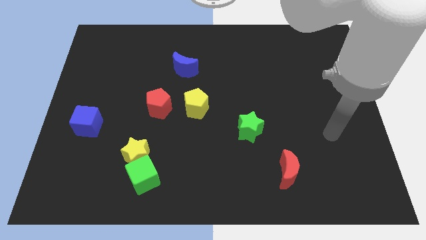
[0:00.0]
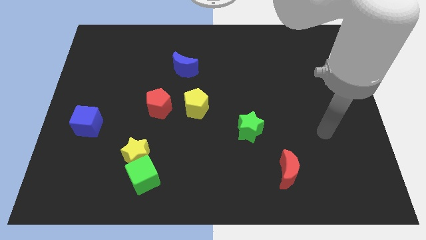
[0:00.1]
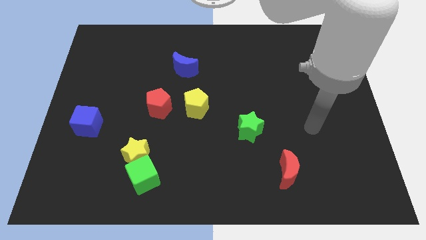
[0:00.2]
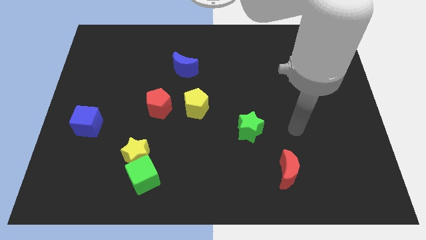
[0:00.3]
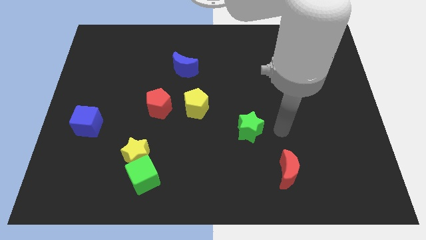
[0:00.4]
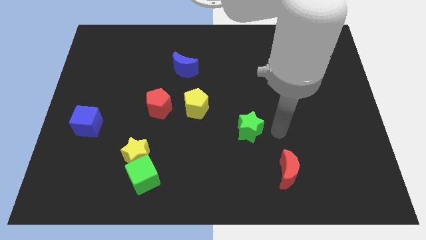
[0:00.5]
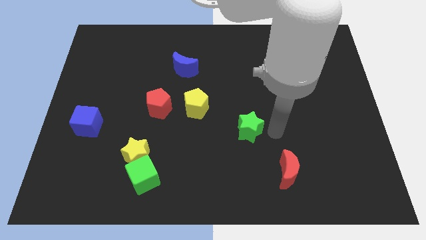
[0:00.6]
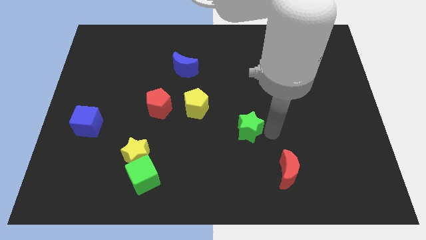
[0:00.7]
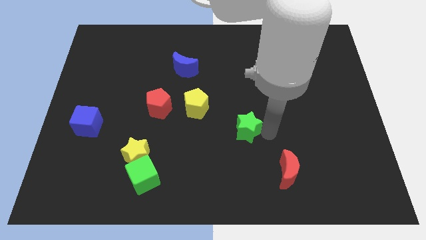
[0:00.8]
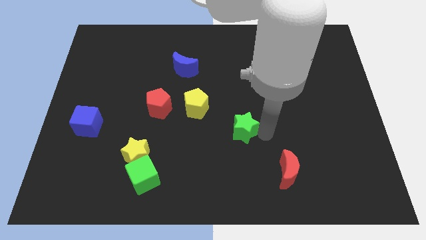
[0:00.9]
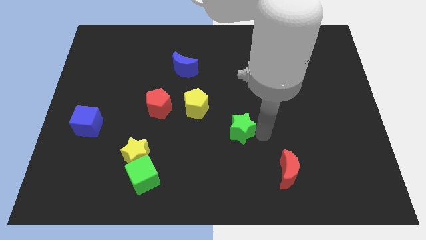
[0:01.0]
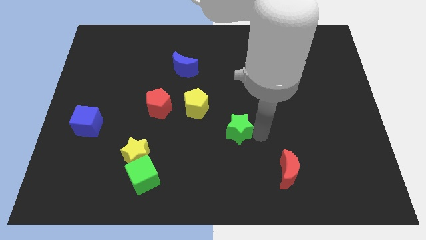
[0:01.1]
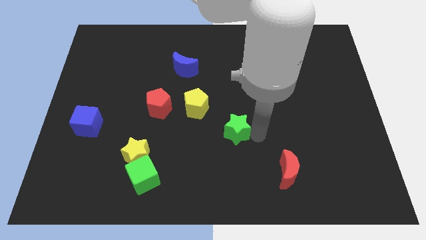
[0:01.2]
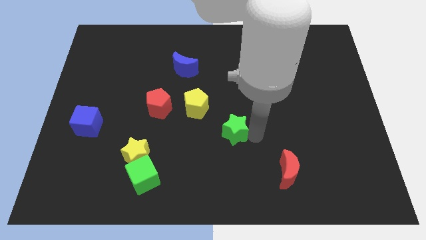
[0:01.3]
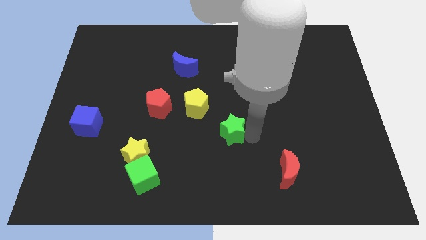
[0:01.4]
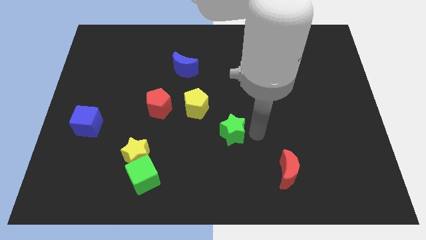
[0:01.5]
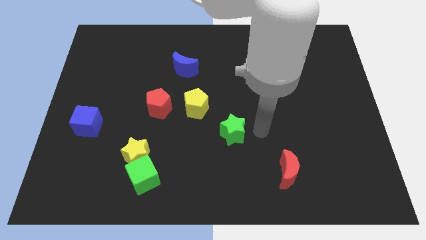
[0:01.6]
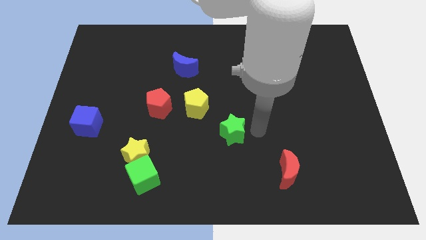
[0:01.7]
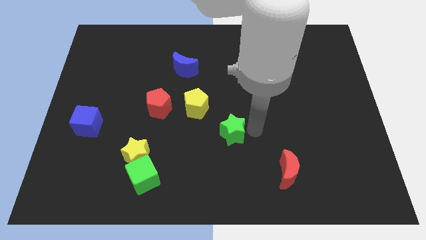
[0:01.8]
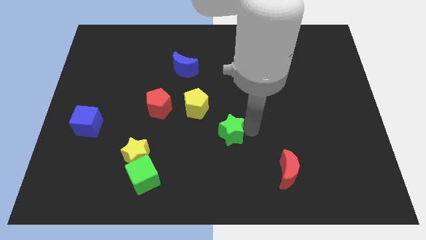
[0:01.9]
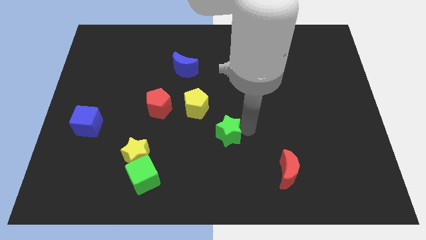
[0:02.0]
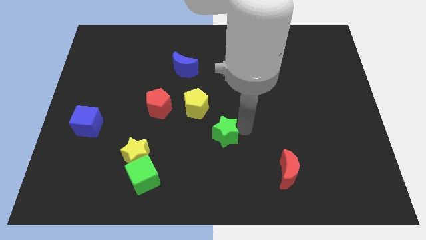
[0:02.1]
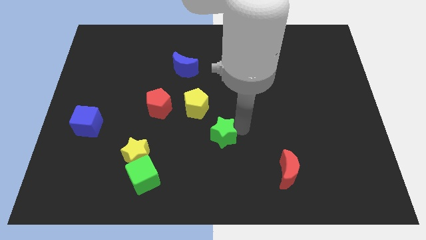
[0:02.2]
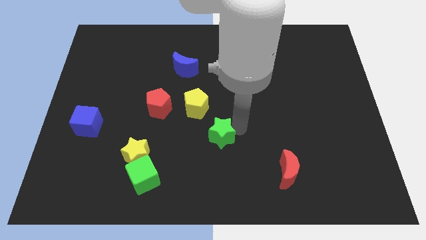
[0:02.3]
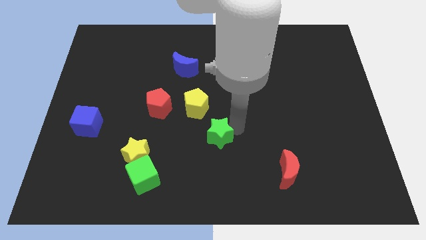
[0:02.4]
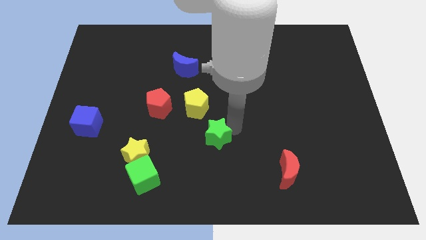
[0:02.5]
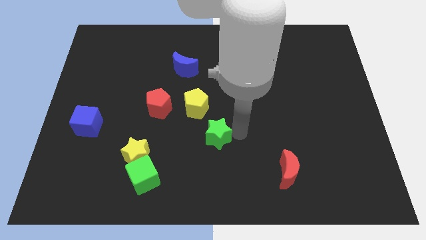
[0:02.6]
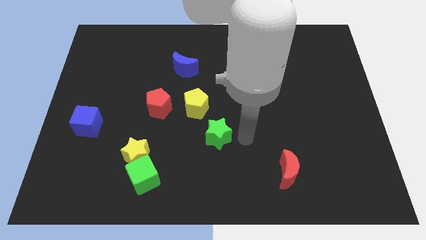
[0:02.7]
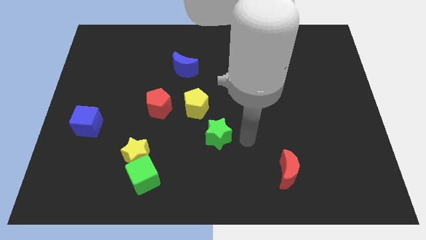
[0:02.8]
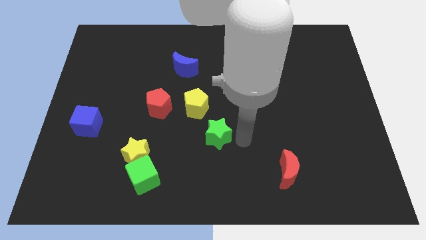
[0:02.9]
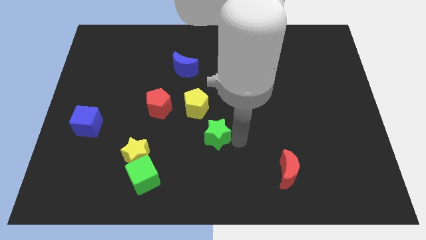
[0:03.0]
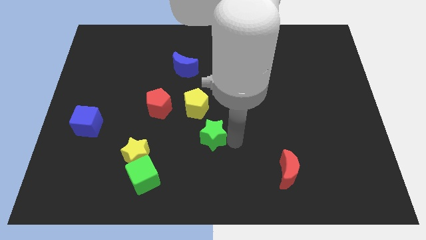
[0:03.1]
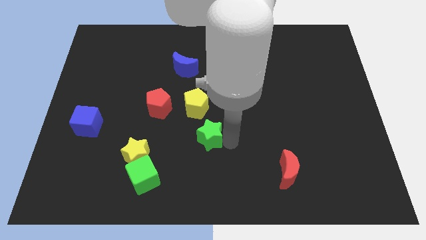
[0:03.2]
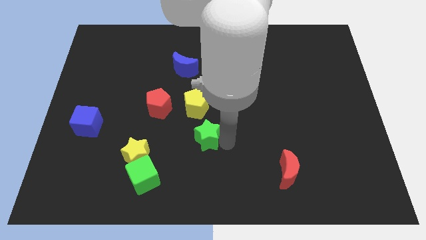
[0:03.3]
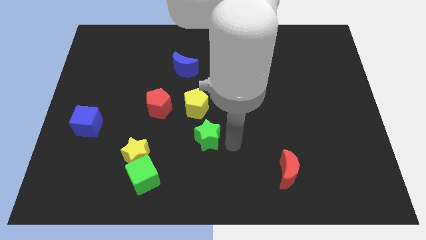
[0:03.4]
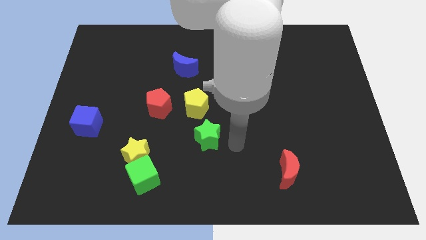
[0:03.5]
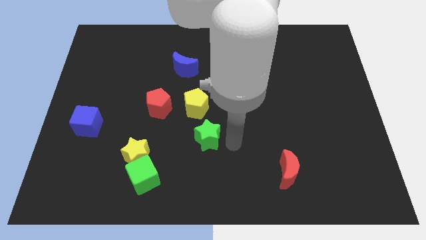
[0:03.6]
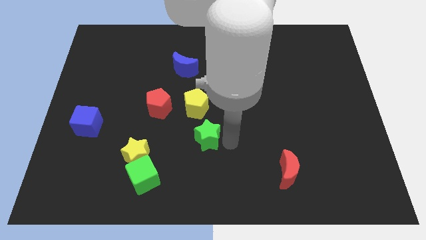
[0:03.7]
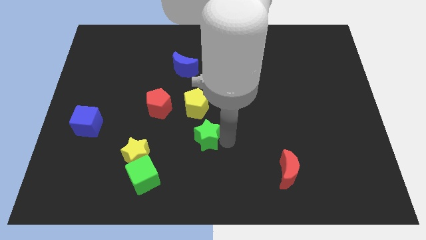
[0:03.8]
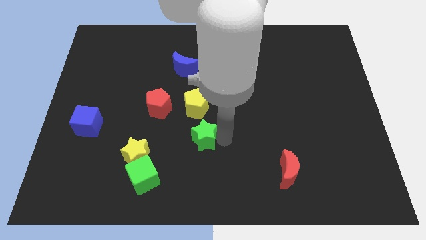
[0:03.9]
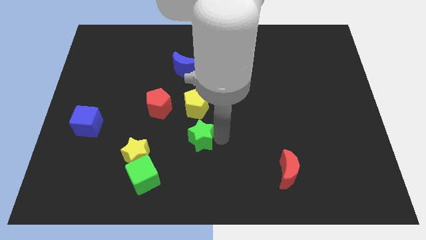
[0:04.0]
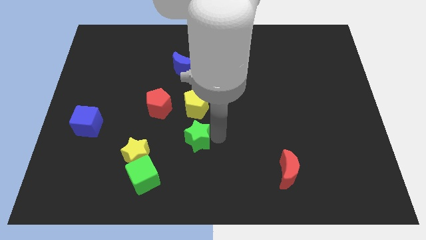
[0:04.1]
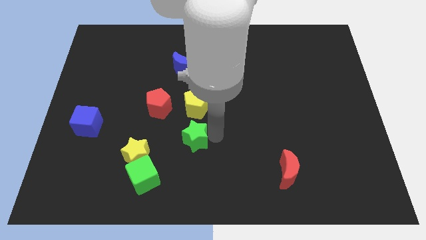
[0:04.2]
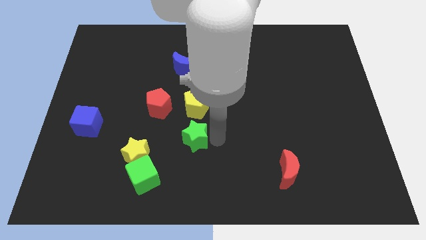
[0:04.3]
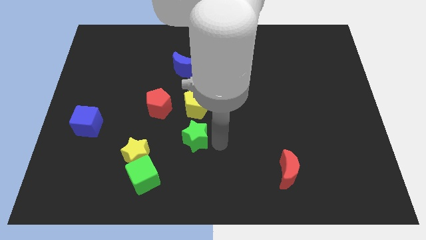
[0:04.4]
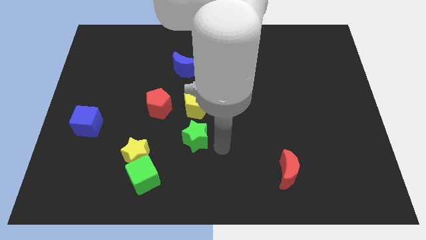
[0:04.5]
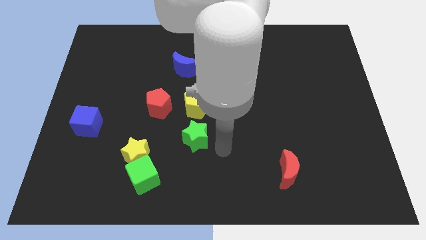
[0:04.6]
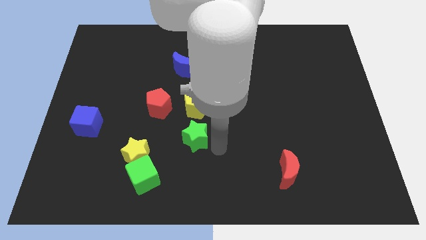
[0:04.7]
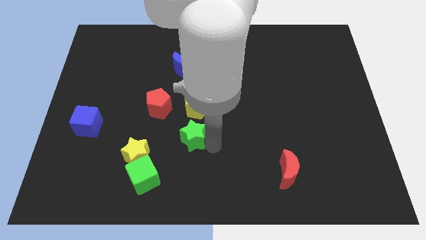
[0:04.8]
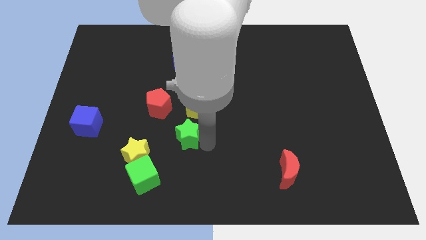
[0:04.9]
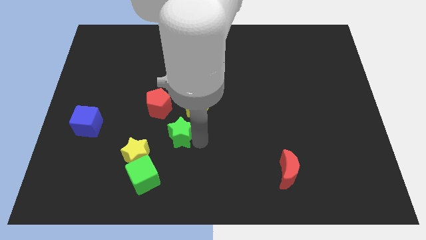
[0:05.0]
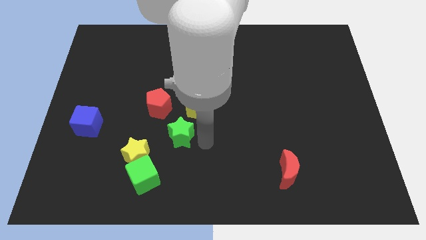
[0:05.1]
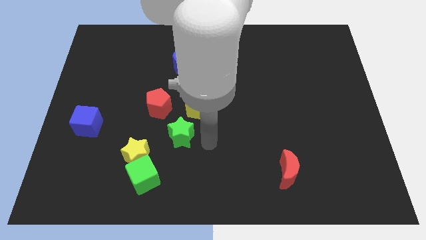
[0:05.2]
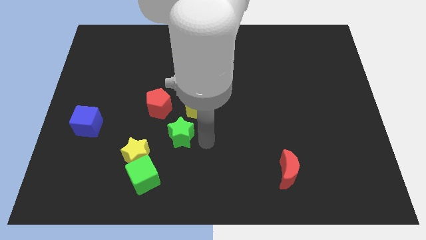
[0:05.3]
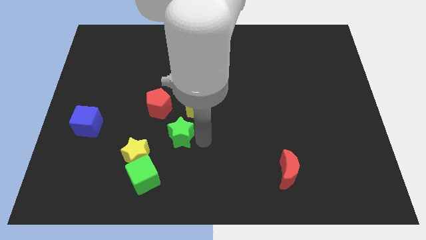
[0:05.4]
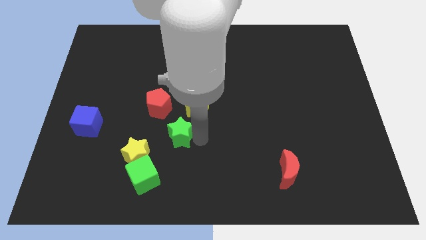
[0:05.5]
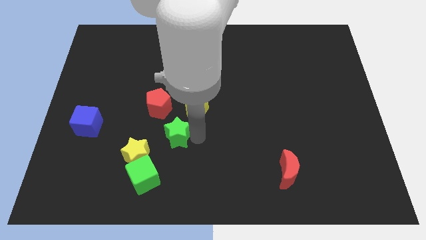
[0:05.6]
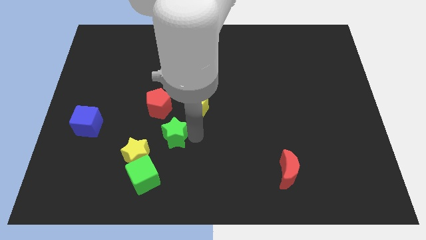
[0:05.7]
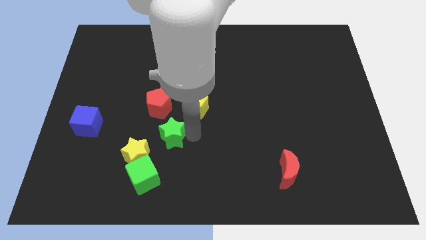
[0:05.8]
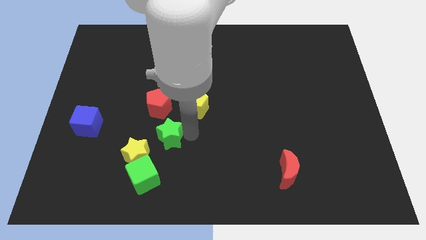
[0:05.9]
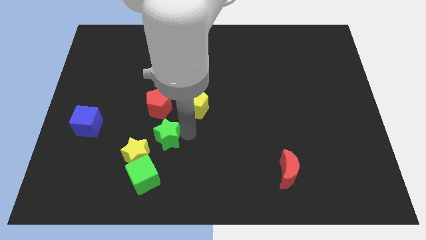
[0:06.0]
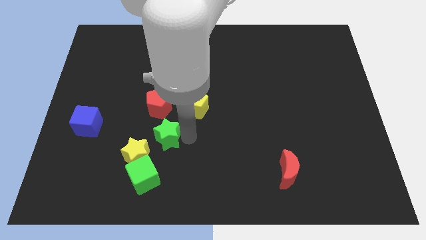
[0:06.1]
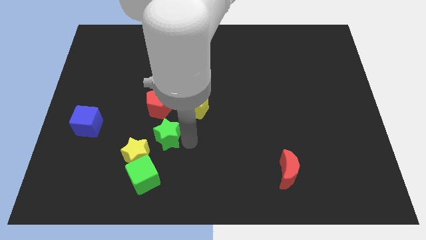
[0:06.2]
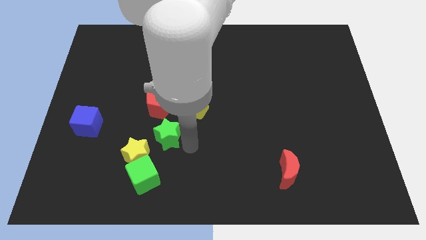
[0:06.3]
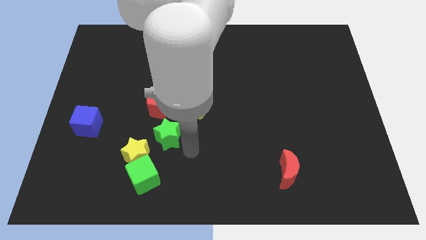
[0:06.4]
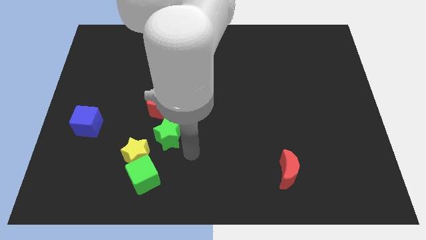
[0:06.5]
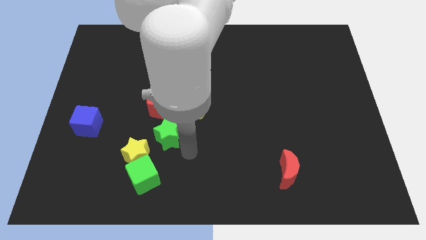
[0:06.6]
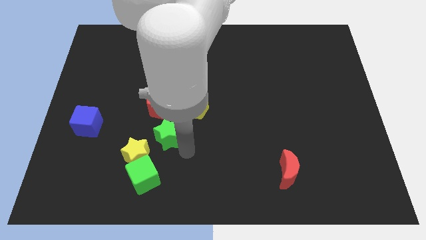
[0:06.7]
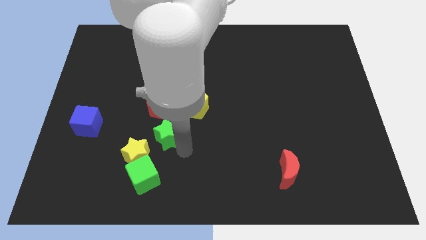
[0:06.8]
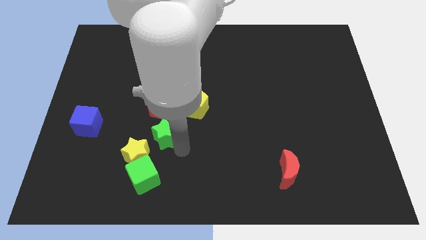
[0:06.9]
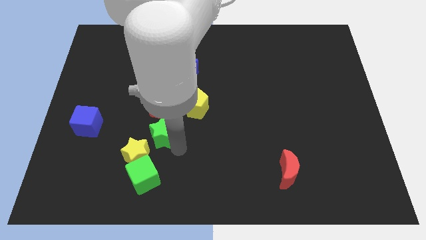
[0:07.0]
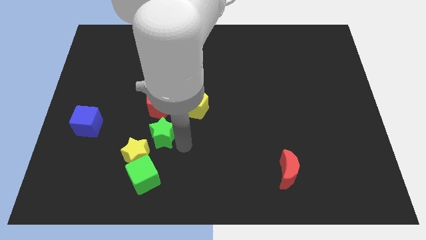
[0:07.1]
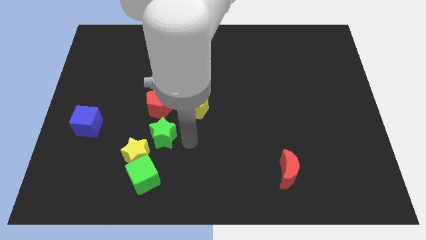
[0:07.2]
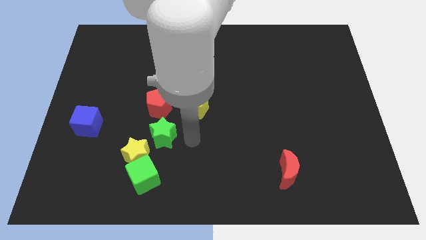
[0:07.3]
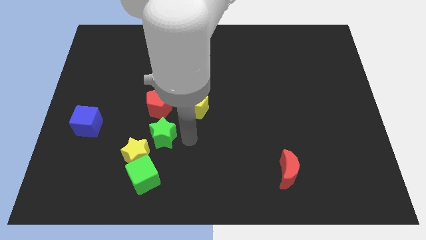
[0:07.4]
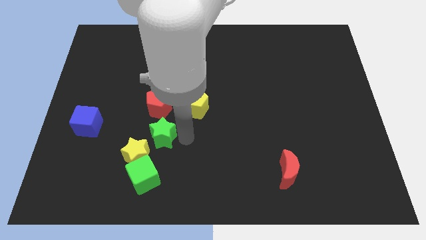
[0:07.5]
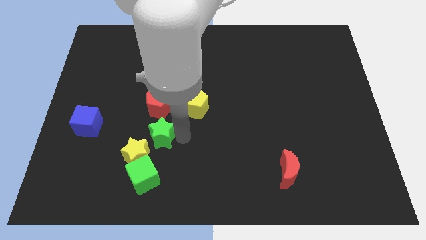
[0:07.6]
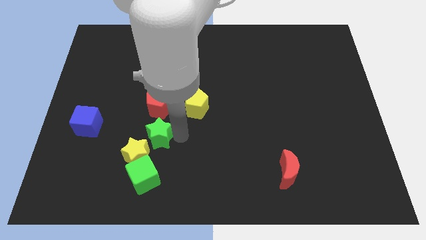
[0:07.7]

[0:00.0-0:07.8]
move the green star left

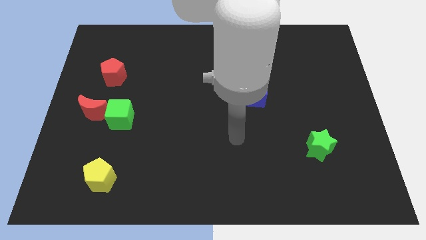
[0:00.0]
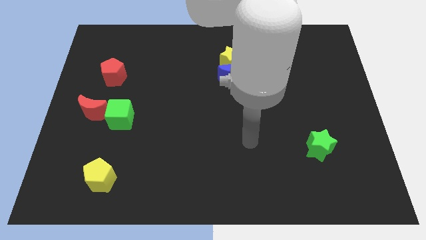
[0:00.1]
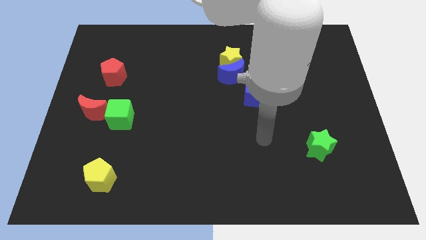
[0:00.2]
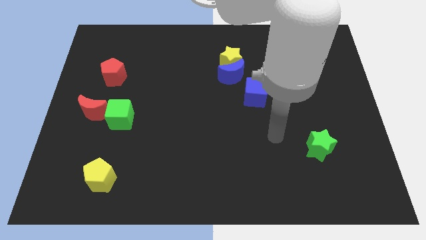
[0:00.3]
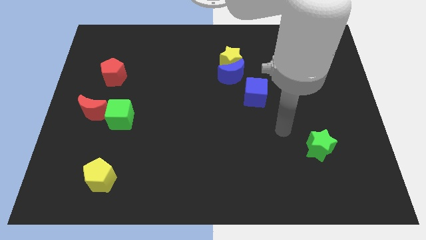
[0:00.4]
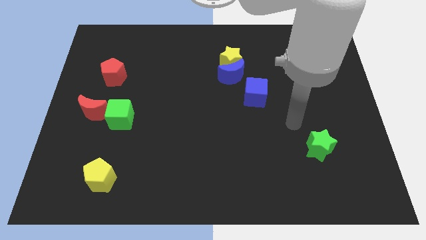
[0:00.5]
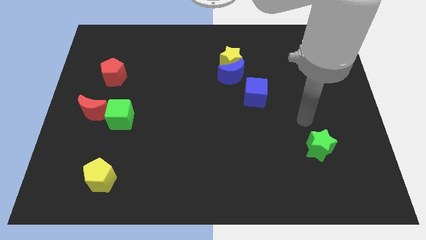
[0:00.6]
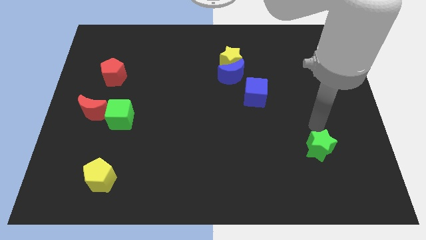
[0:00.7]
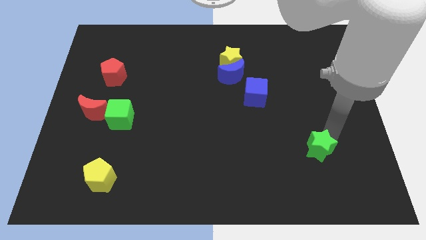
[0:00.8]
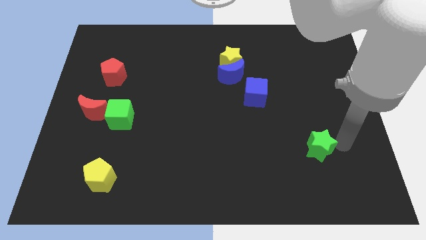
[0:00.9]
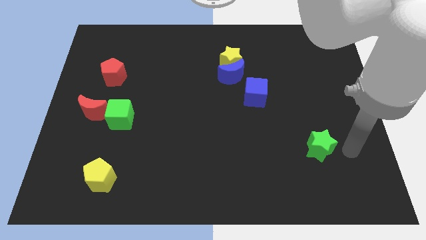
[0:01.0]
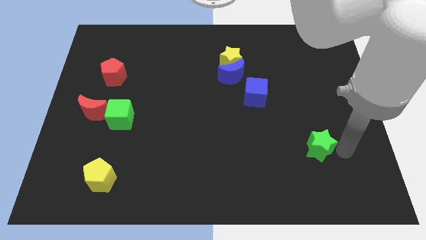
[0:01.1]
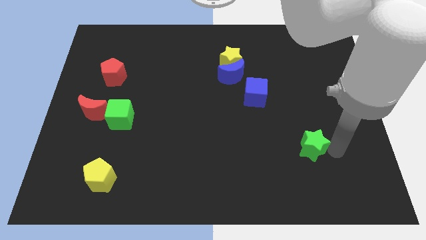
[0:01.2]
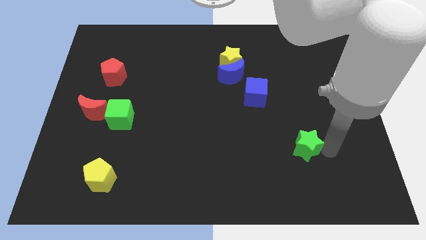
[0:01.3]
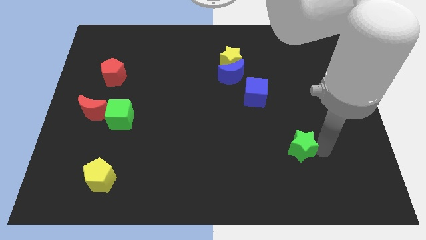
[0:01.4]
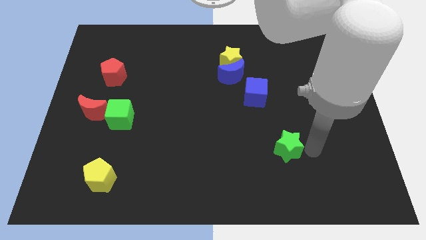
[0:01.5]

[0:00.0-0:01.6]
slightly slide the green star to the left
